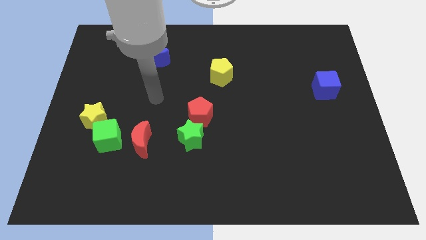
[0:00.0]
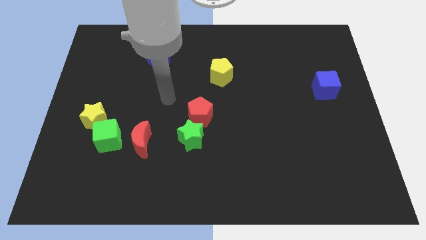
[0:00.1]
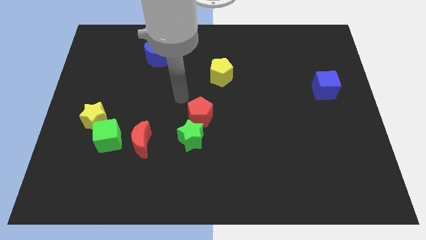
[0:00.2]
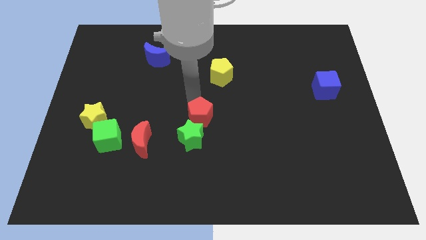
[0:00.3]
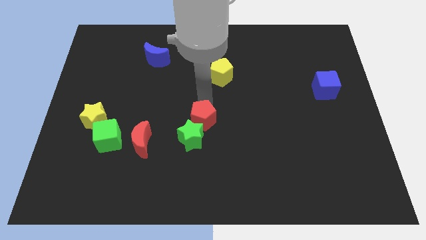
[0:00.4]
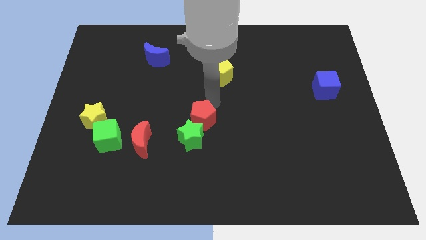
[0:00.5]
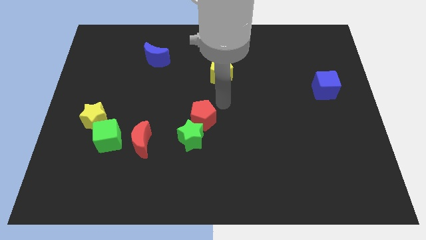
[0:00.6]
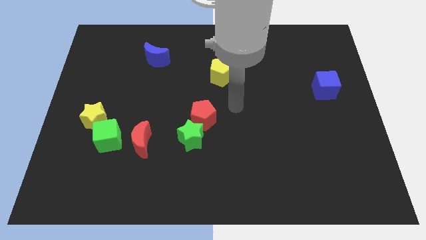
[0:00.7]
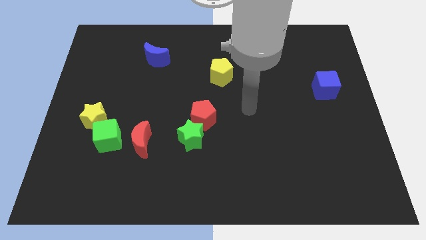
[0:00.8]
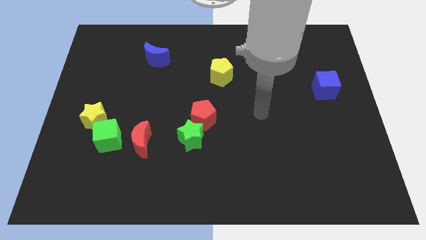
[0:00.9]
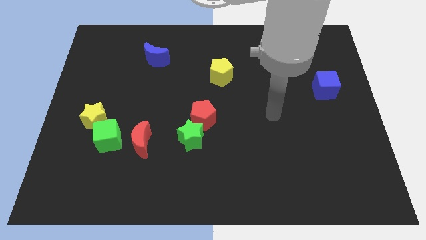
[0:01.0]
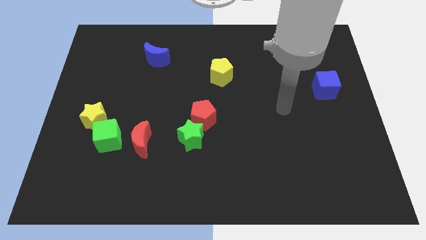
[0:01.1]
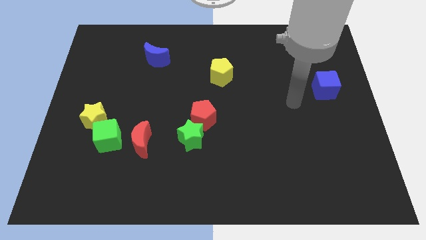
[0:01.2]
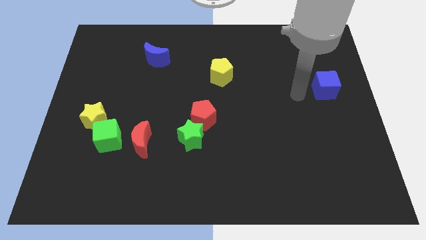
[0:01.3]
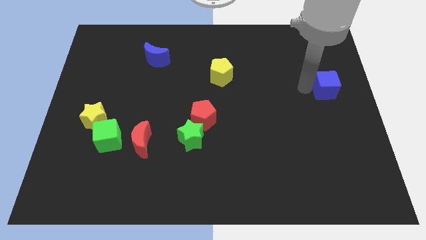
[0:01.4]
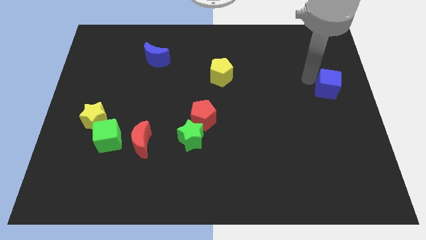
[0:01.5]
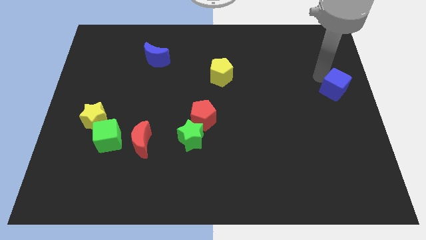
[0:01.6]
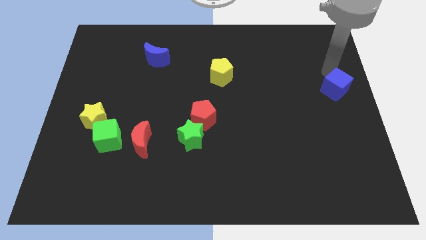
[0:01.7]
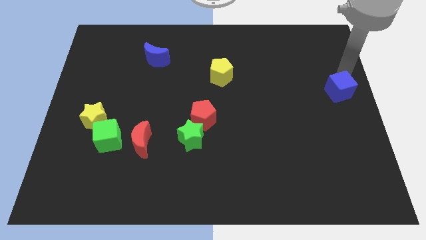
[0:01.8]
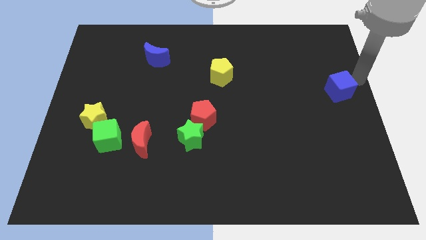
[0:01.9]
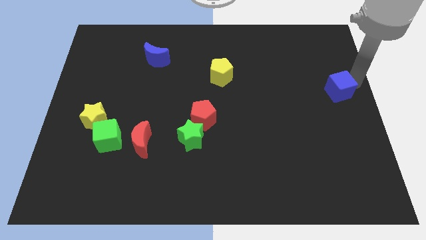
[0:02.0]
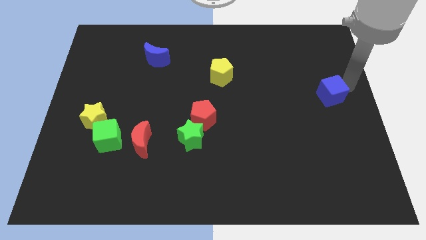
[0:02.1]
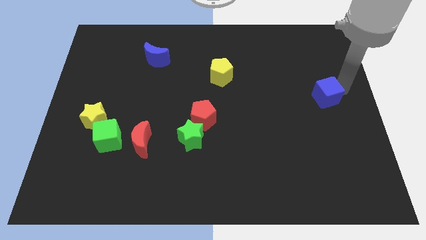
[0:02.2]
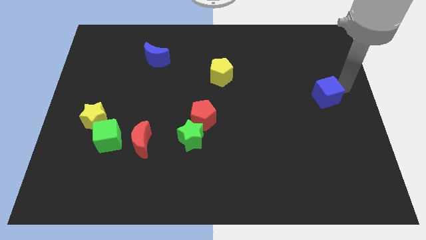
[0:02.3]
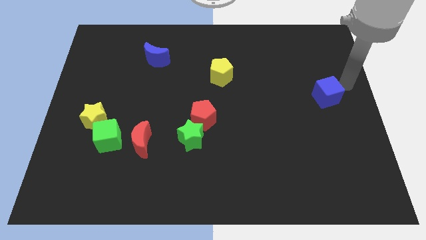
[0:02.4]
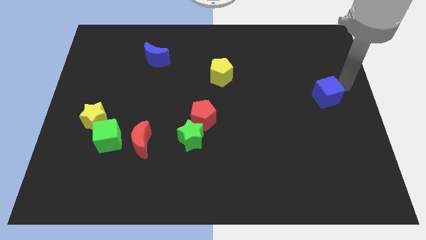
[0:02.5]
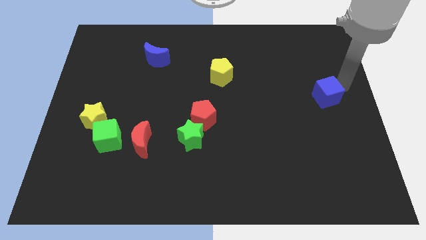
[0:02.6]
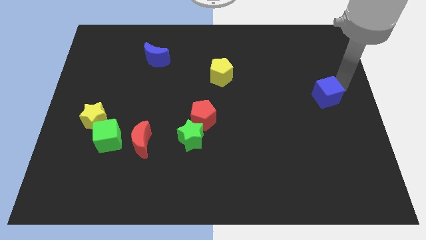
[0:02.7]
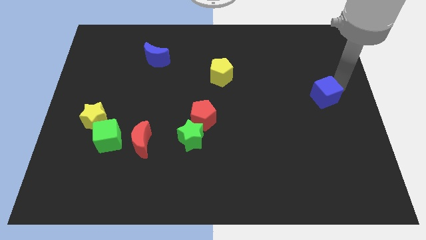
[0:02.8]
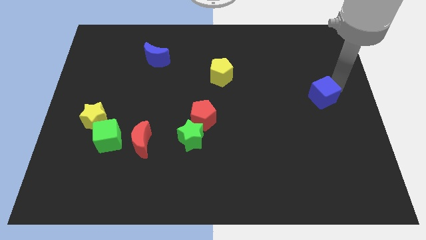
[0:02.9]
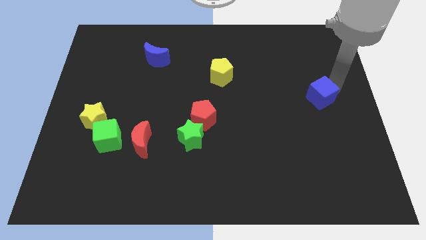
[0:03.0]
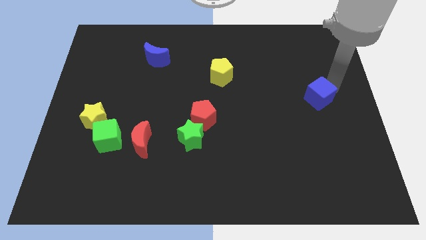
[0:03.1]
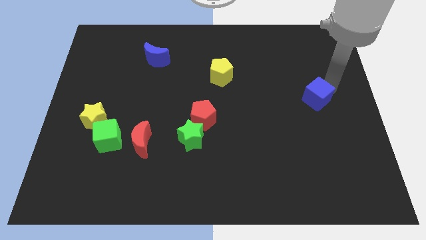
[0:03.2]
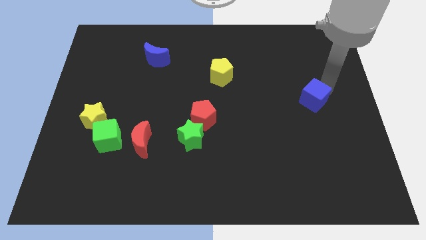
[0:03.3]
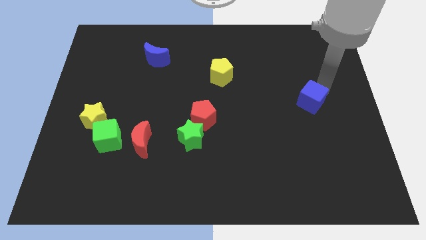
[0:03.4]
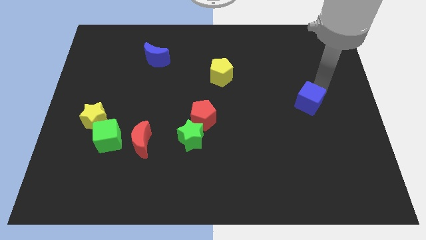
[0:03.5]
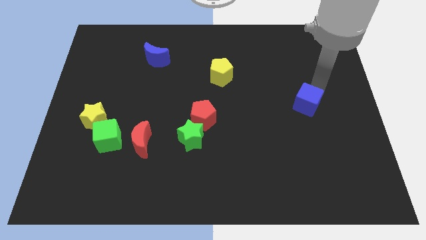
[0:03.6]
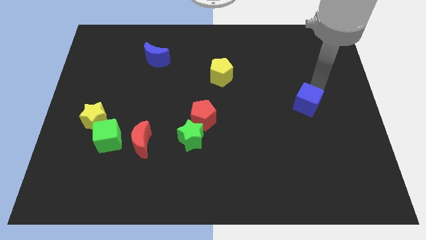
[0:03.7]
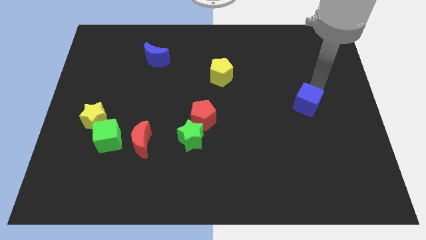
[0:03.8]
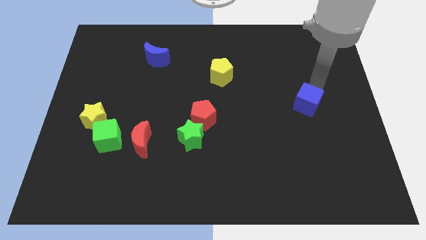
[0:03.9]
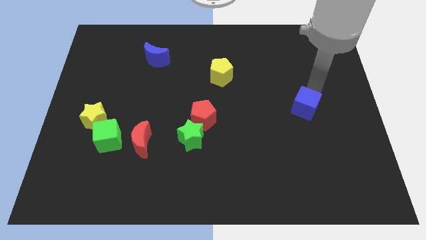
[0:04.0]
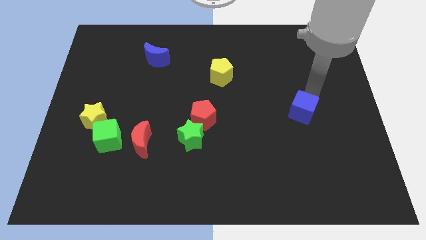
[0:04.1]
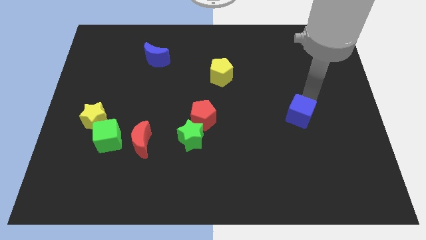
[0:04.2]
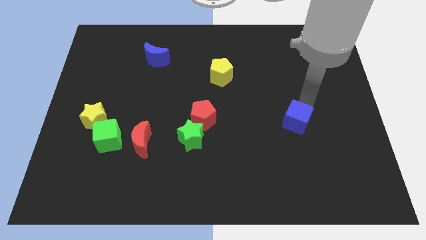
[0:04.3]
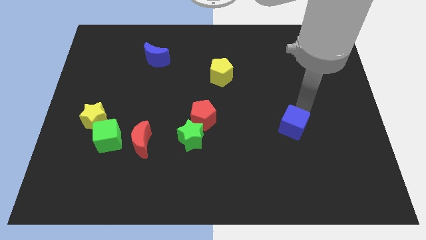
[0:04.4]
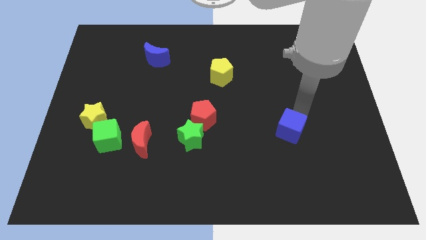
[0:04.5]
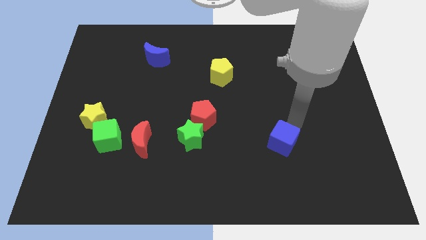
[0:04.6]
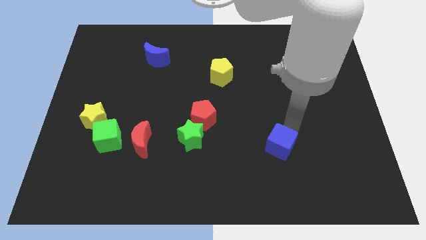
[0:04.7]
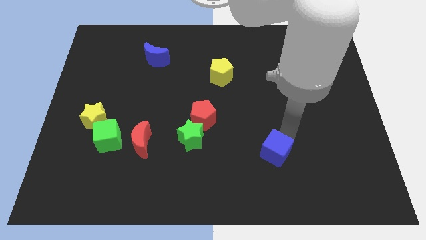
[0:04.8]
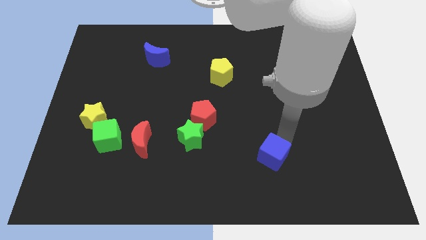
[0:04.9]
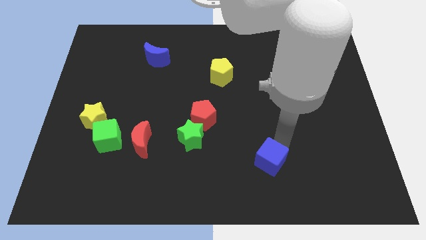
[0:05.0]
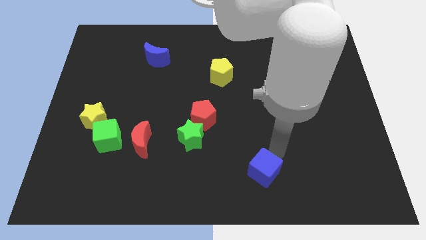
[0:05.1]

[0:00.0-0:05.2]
move the blue cube to the bottom side

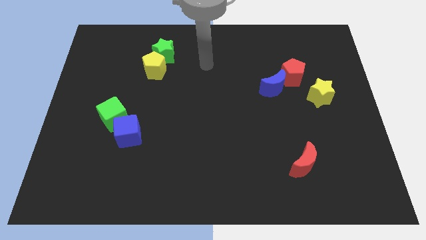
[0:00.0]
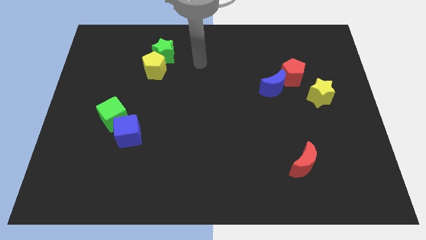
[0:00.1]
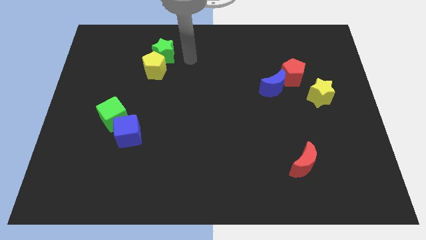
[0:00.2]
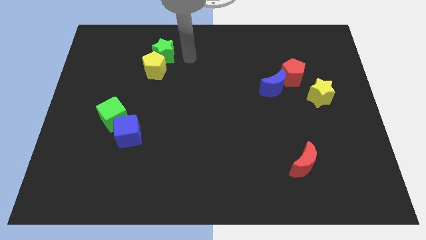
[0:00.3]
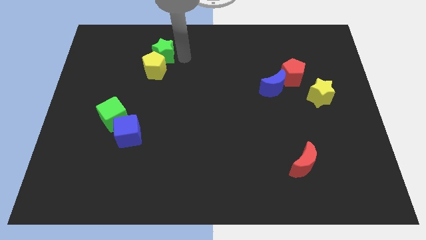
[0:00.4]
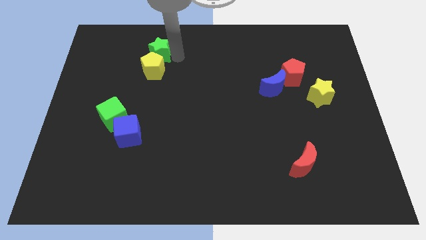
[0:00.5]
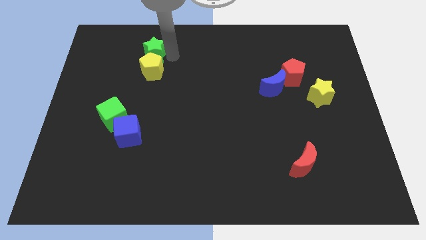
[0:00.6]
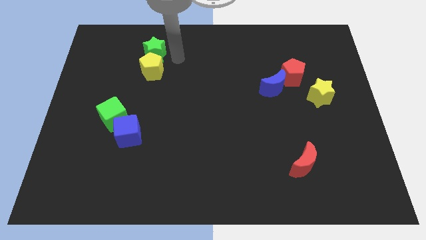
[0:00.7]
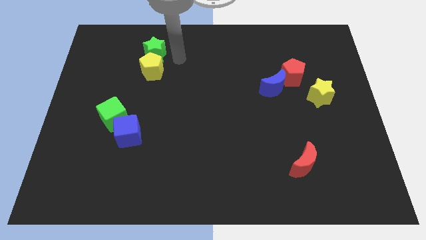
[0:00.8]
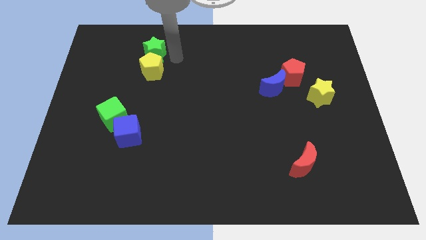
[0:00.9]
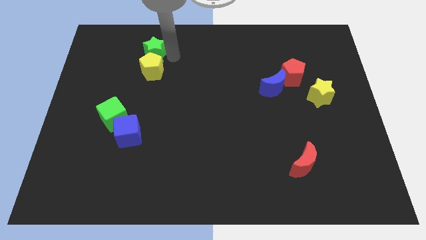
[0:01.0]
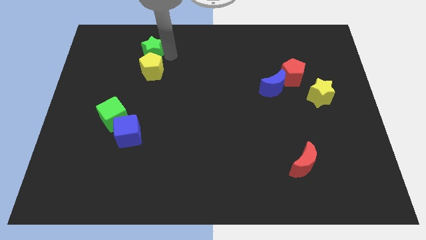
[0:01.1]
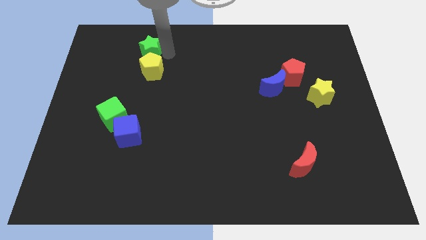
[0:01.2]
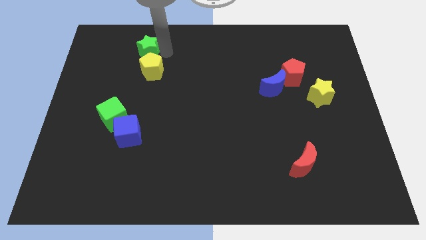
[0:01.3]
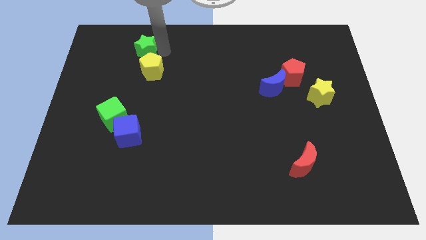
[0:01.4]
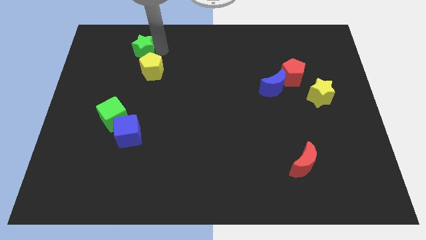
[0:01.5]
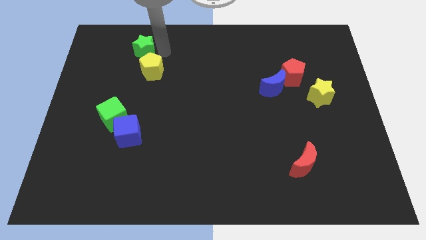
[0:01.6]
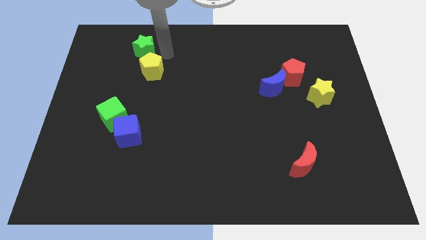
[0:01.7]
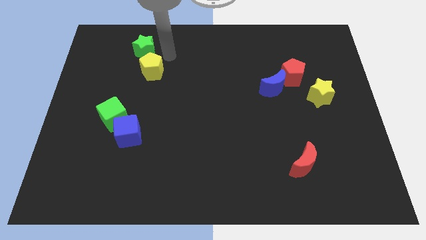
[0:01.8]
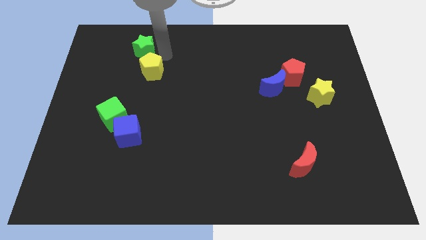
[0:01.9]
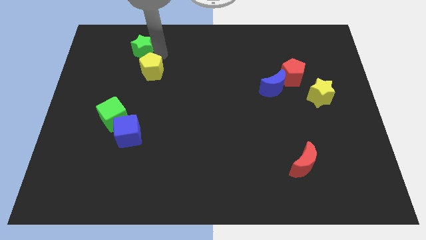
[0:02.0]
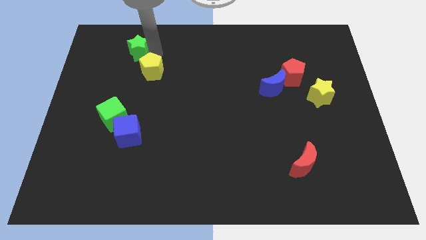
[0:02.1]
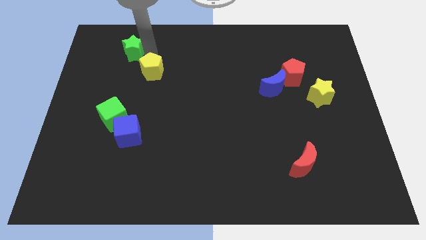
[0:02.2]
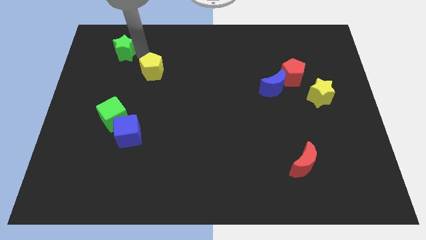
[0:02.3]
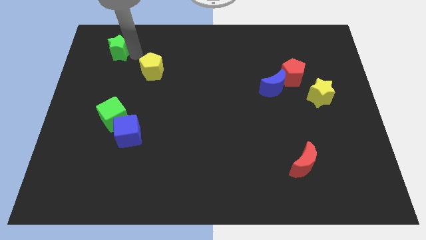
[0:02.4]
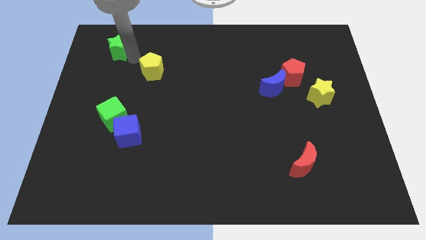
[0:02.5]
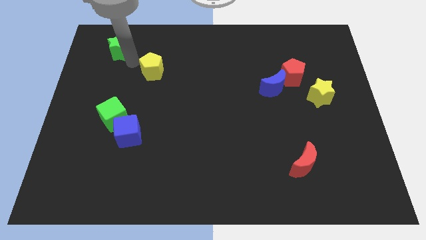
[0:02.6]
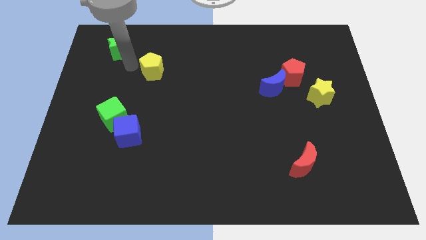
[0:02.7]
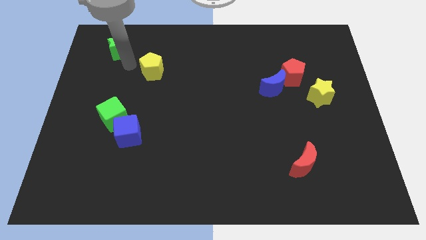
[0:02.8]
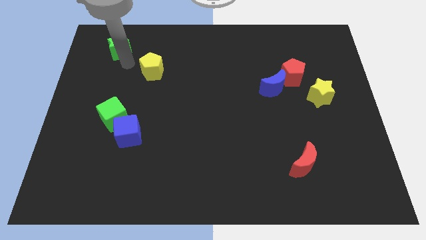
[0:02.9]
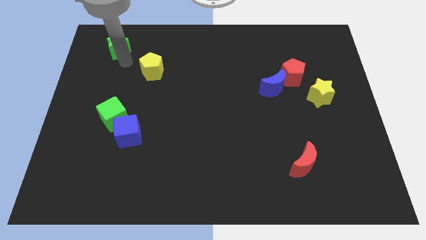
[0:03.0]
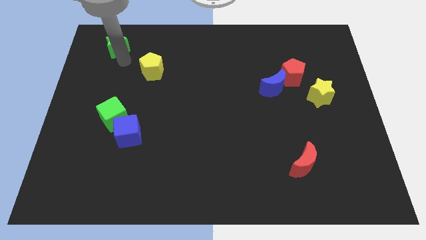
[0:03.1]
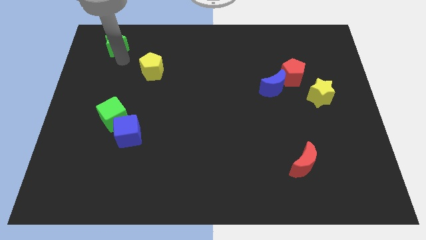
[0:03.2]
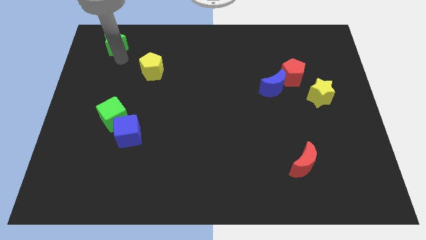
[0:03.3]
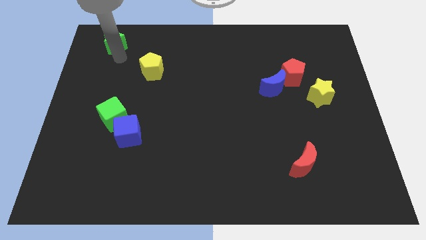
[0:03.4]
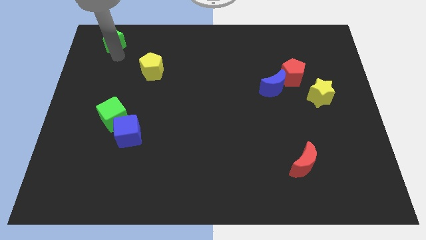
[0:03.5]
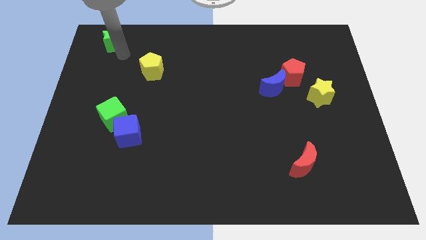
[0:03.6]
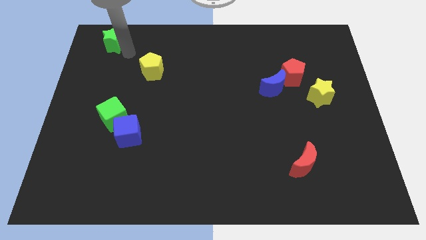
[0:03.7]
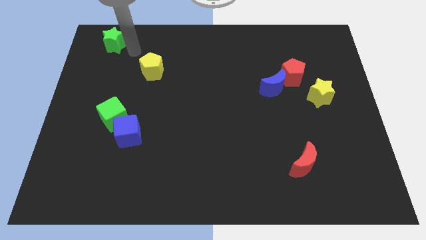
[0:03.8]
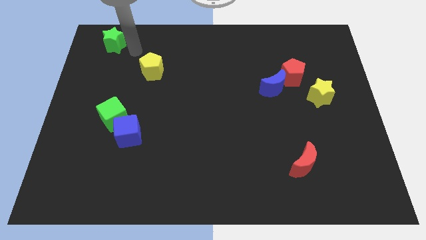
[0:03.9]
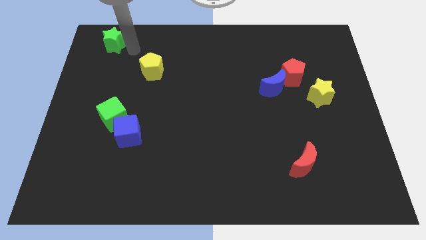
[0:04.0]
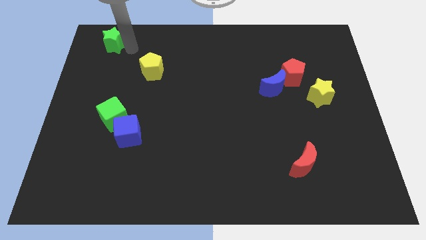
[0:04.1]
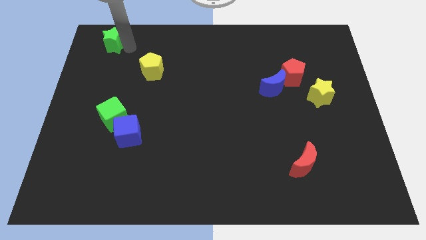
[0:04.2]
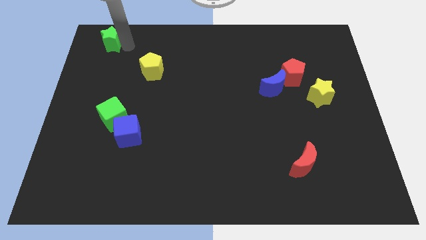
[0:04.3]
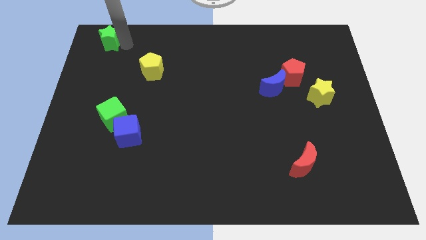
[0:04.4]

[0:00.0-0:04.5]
put the green star to the top left corner
